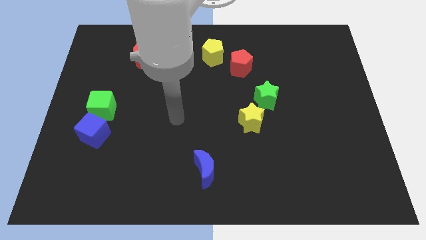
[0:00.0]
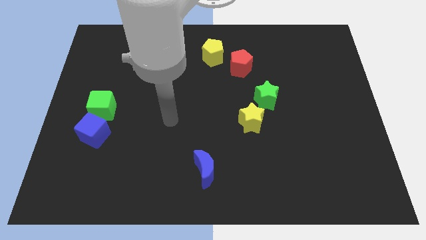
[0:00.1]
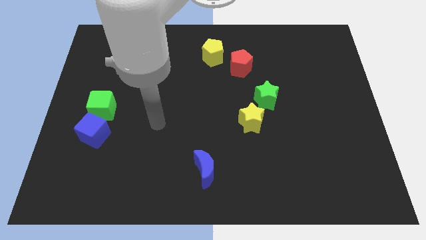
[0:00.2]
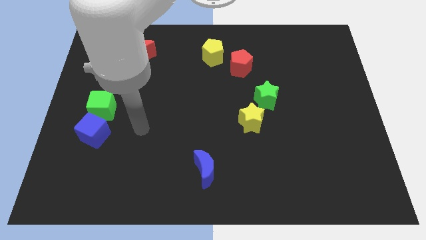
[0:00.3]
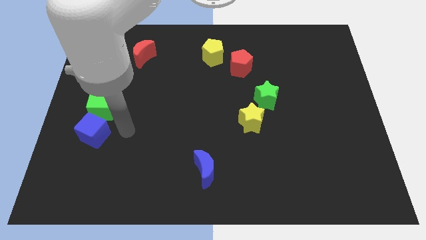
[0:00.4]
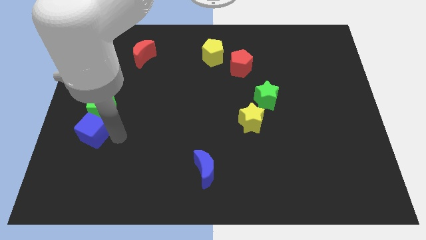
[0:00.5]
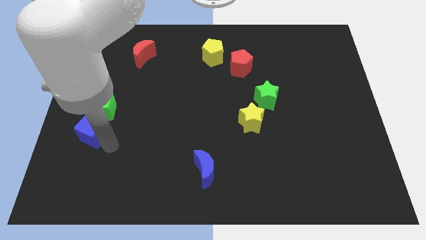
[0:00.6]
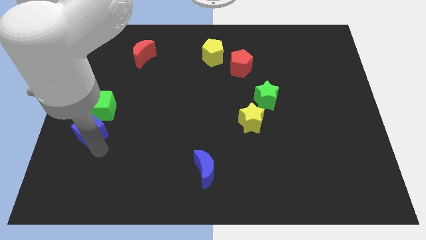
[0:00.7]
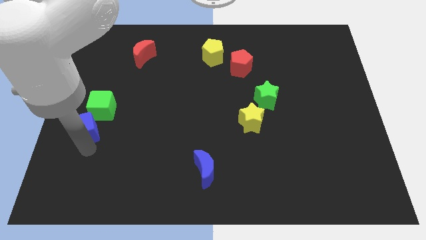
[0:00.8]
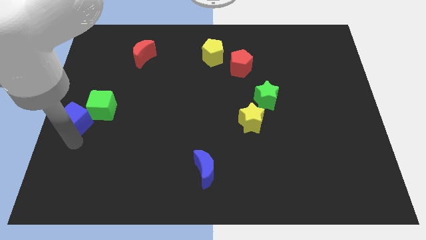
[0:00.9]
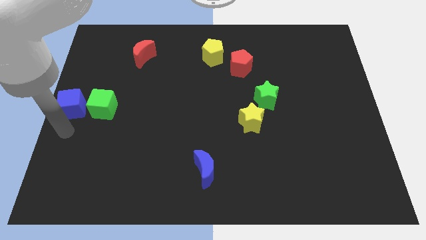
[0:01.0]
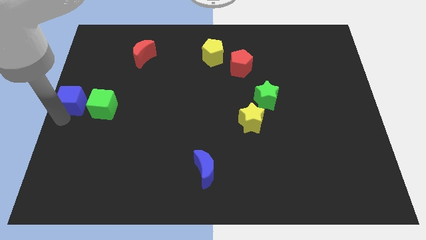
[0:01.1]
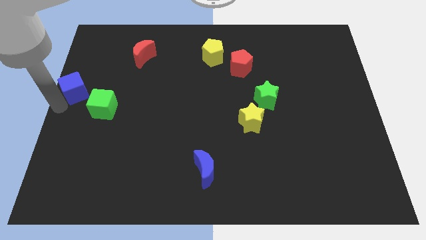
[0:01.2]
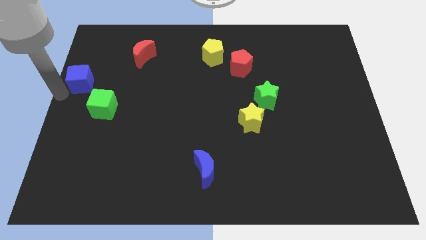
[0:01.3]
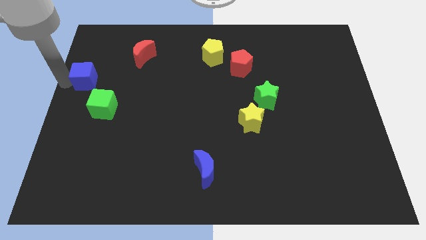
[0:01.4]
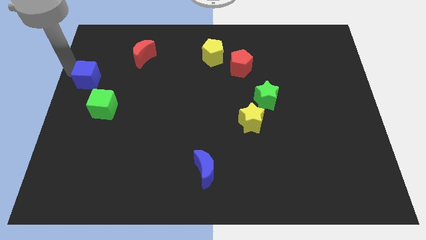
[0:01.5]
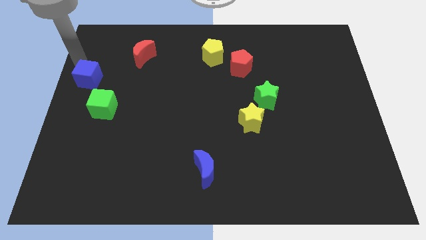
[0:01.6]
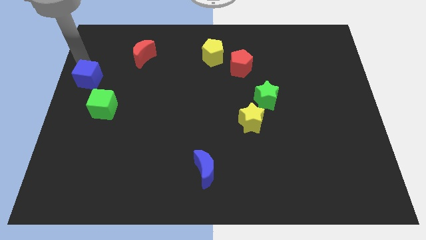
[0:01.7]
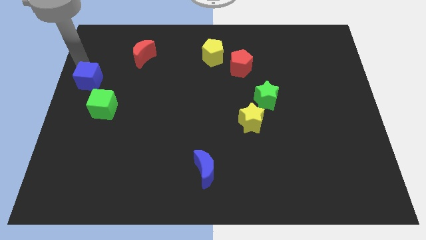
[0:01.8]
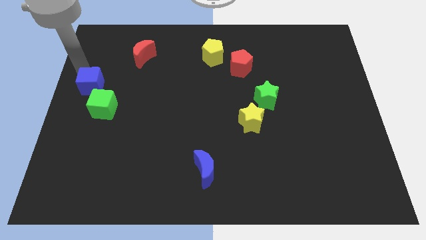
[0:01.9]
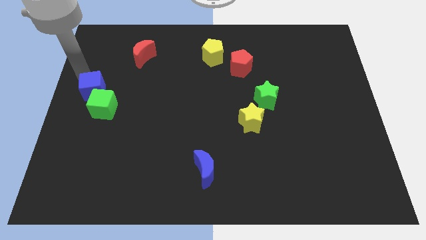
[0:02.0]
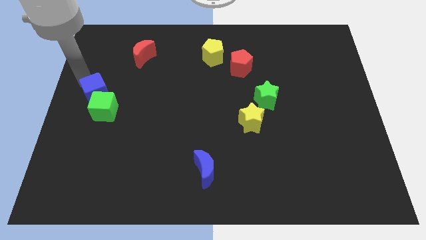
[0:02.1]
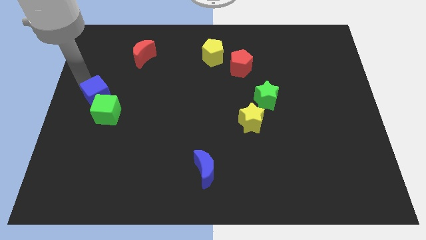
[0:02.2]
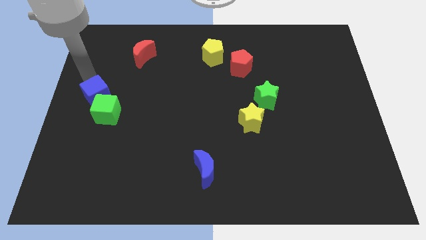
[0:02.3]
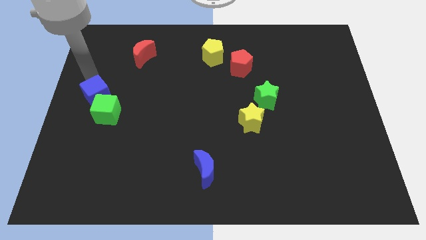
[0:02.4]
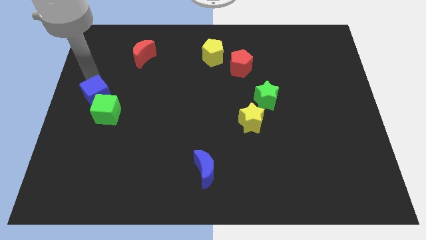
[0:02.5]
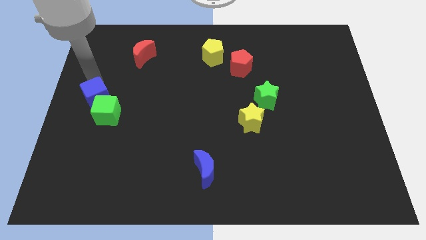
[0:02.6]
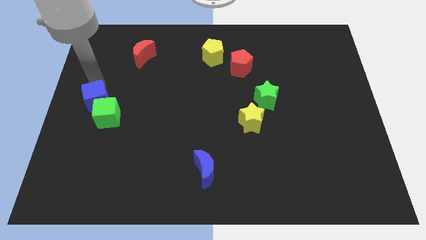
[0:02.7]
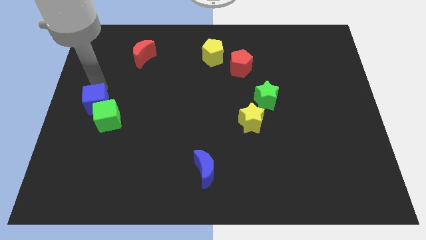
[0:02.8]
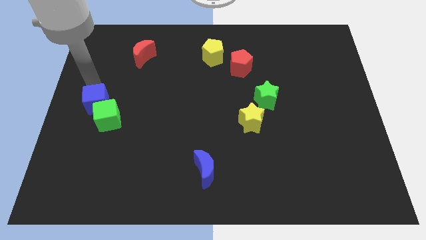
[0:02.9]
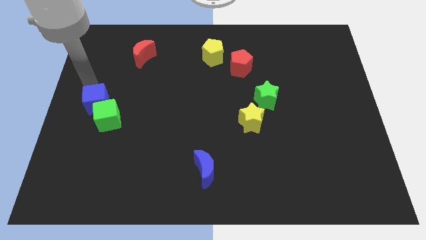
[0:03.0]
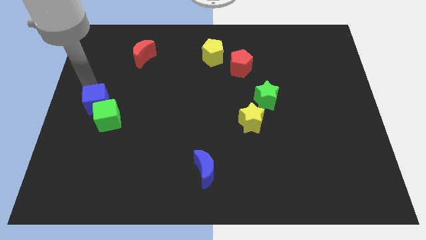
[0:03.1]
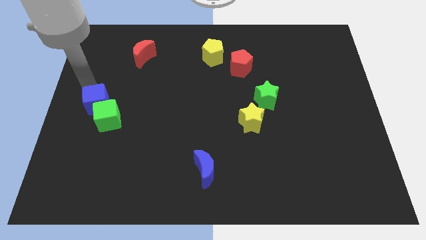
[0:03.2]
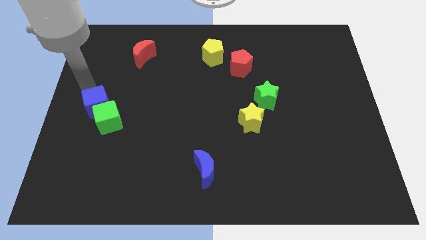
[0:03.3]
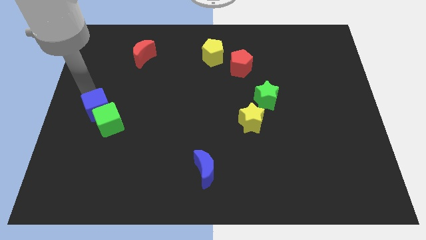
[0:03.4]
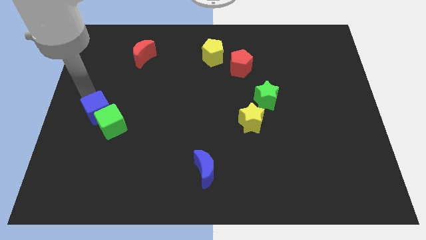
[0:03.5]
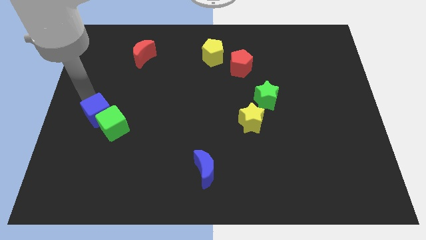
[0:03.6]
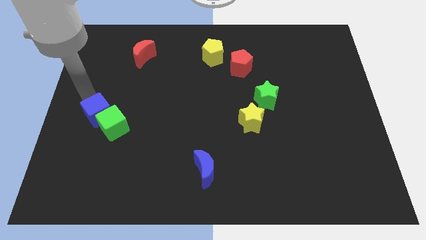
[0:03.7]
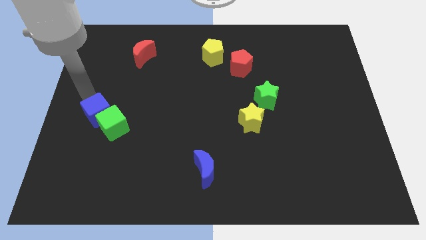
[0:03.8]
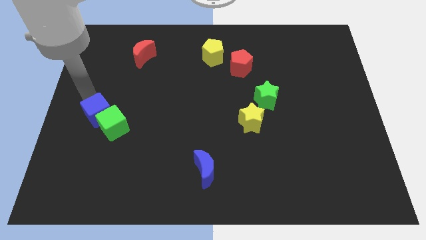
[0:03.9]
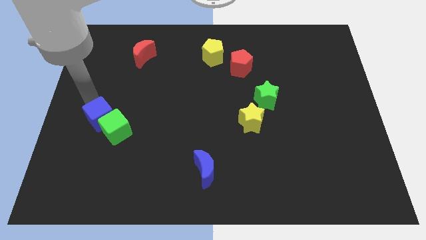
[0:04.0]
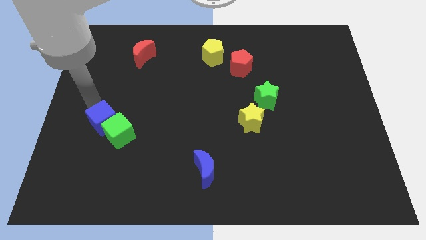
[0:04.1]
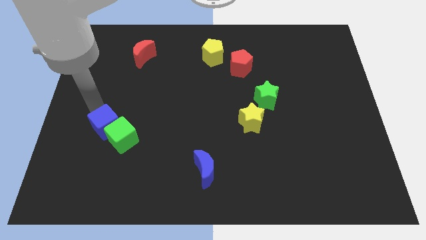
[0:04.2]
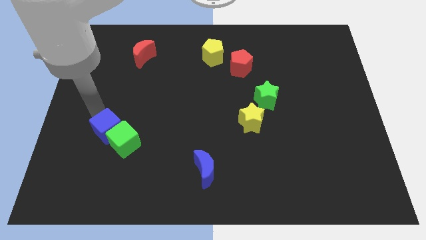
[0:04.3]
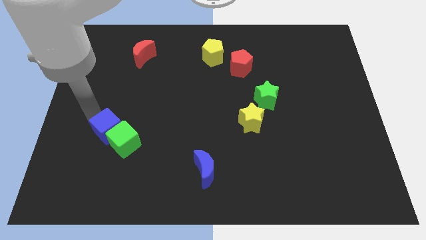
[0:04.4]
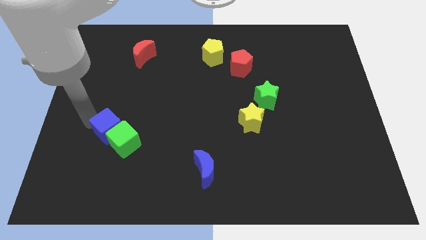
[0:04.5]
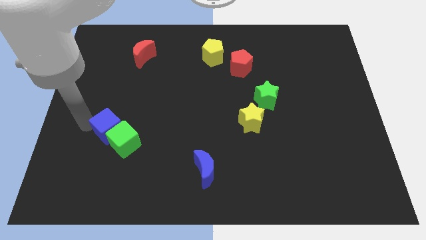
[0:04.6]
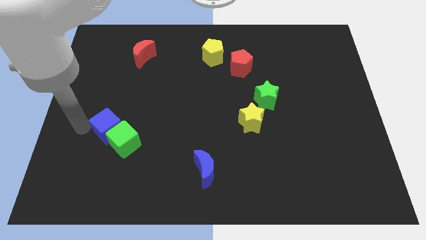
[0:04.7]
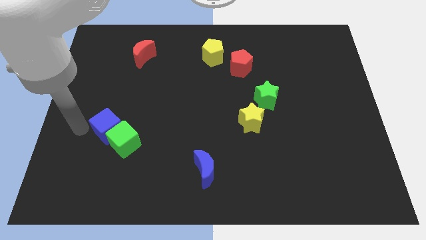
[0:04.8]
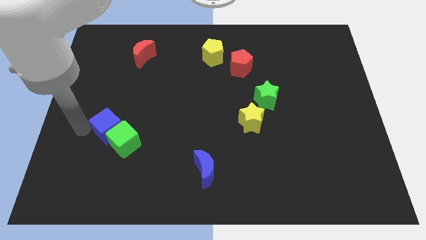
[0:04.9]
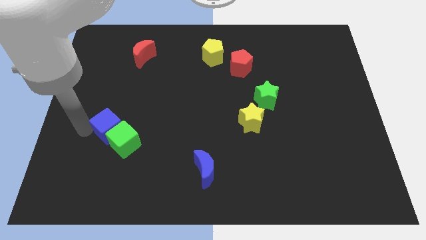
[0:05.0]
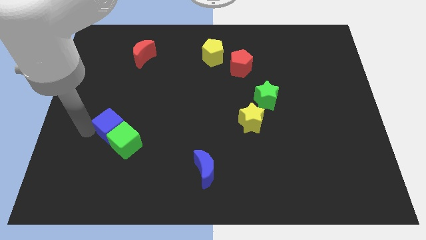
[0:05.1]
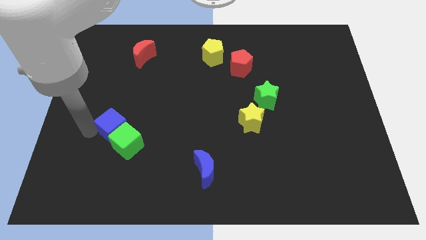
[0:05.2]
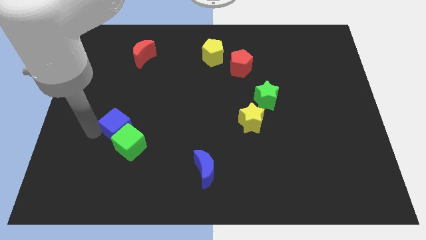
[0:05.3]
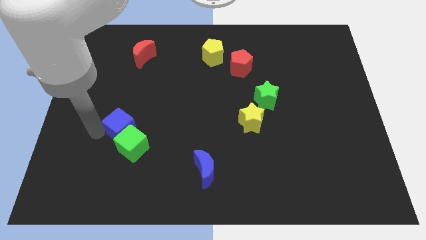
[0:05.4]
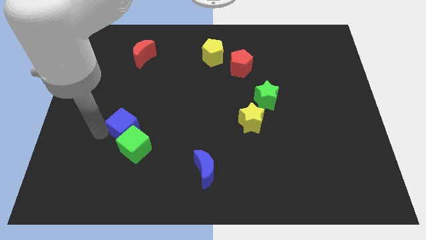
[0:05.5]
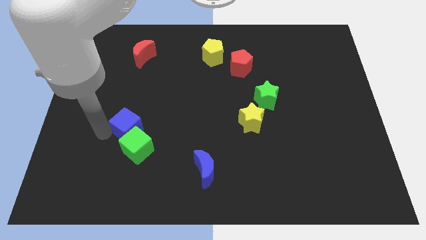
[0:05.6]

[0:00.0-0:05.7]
slightly move the blue cube right

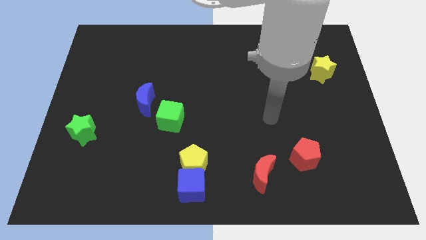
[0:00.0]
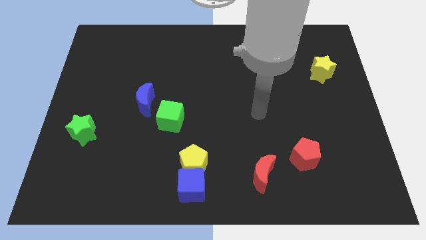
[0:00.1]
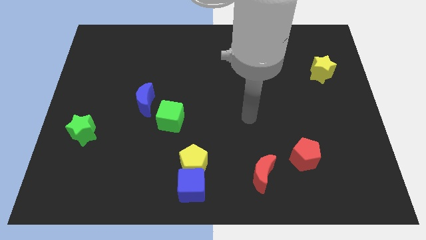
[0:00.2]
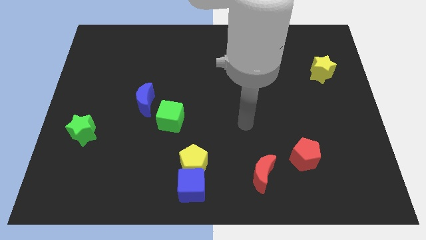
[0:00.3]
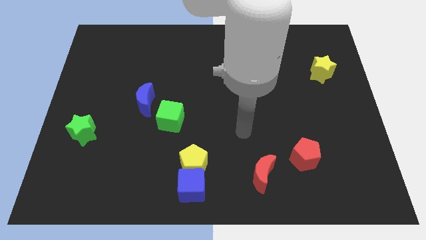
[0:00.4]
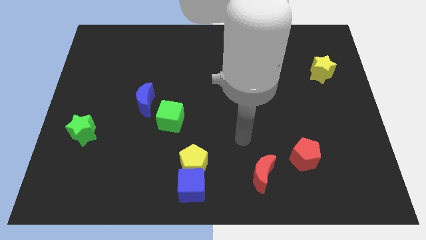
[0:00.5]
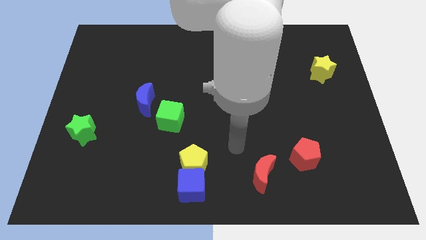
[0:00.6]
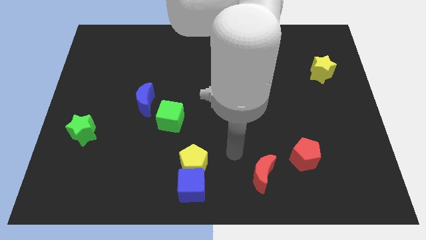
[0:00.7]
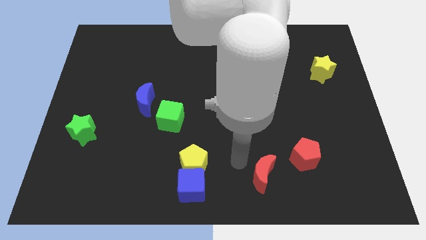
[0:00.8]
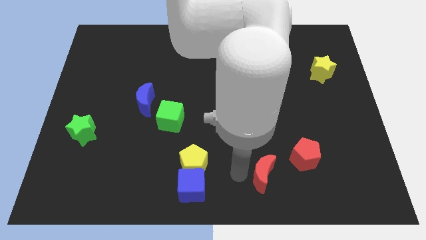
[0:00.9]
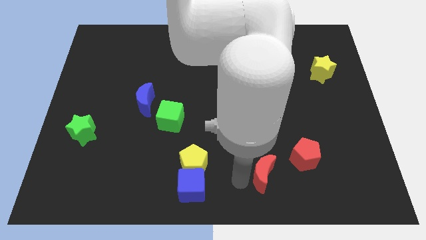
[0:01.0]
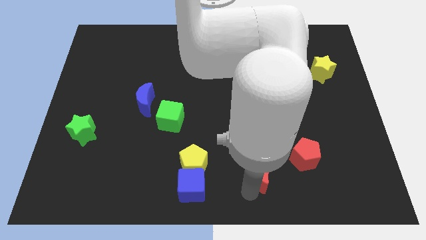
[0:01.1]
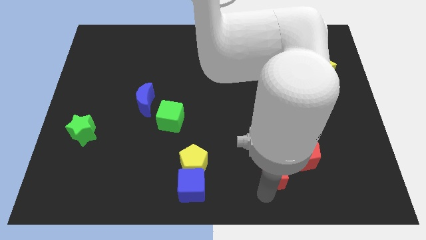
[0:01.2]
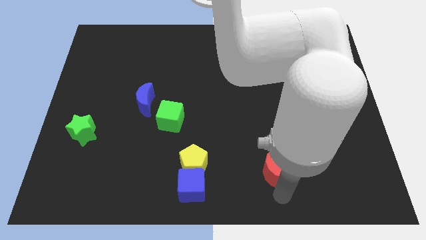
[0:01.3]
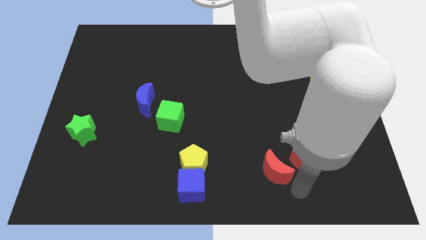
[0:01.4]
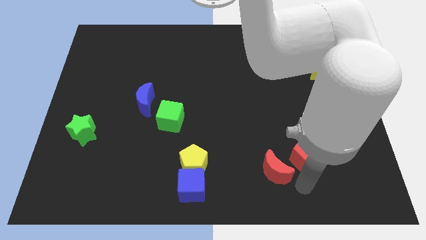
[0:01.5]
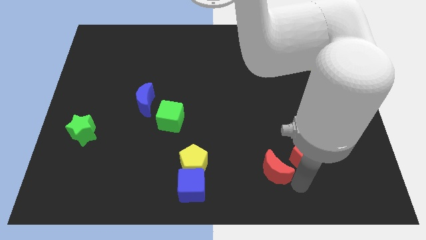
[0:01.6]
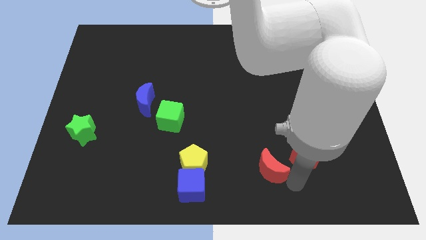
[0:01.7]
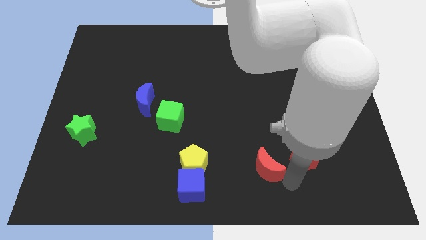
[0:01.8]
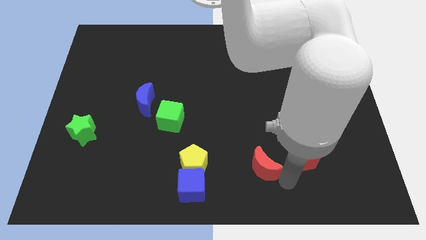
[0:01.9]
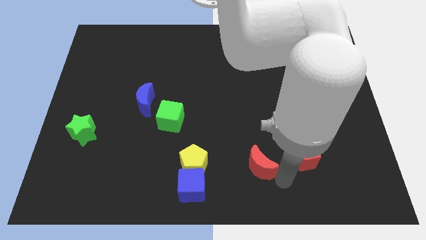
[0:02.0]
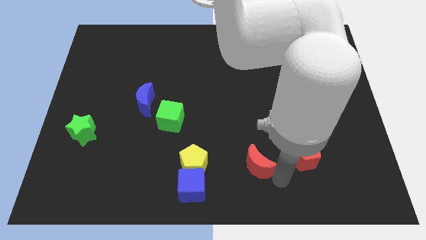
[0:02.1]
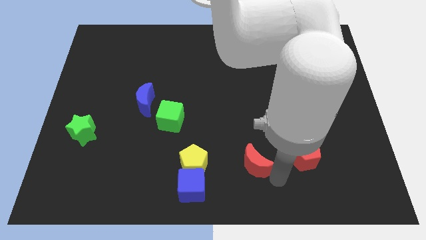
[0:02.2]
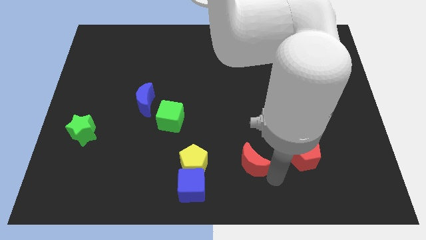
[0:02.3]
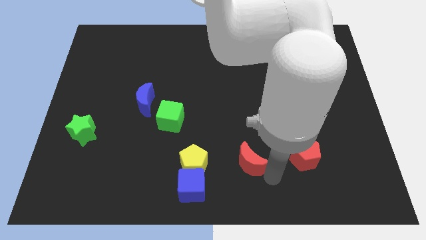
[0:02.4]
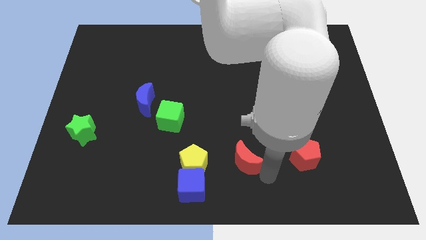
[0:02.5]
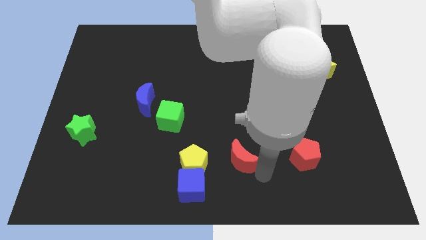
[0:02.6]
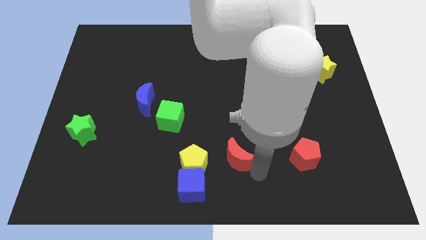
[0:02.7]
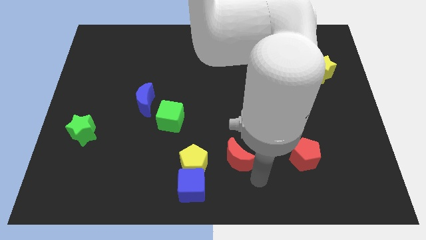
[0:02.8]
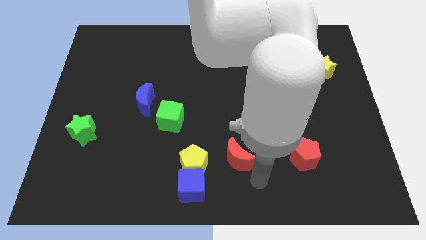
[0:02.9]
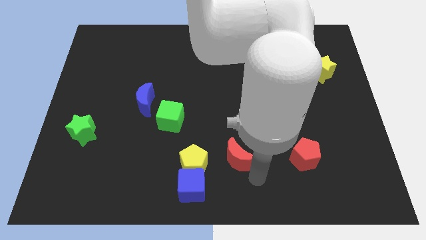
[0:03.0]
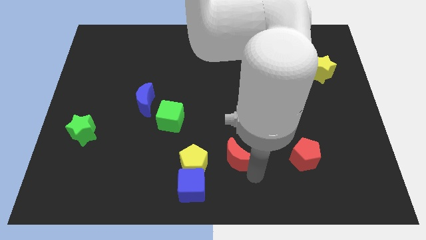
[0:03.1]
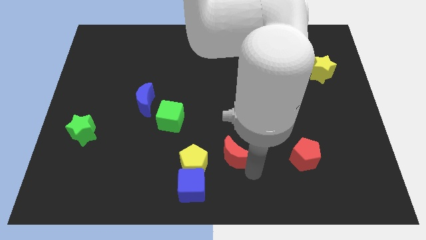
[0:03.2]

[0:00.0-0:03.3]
move the red moon diagonally upwards and to the left slightly
